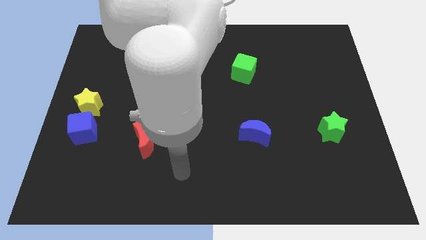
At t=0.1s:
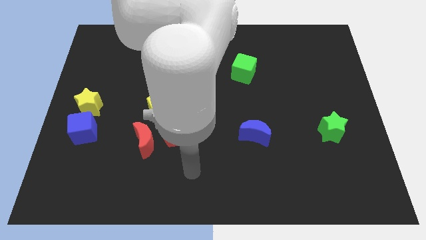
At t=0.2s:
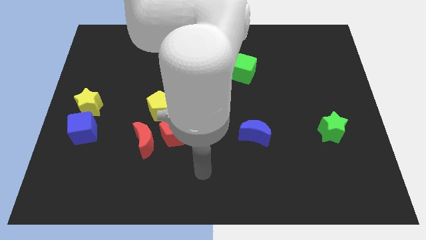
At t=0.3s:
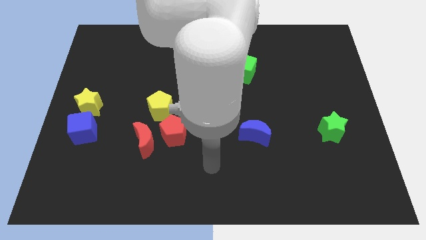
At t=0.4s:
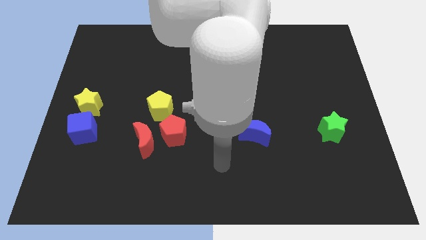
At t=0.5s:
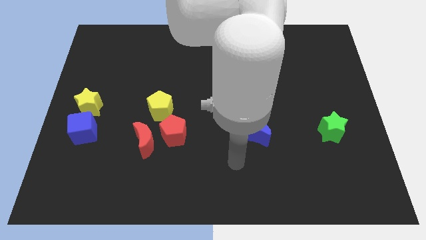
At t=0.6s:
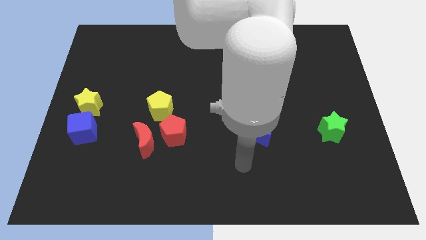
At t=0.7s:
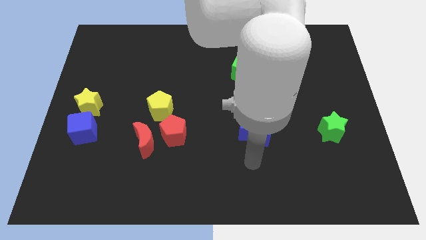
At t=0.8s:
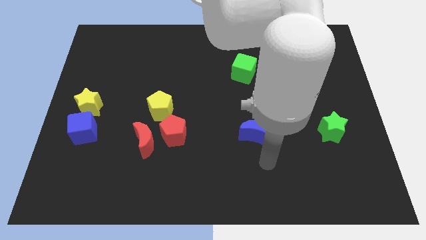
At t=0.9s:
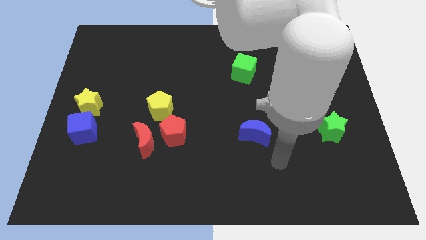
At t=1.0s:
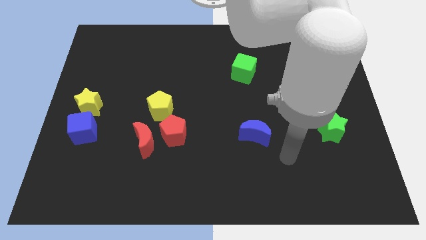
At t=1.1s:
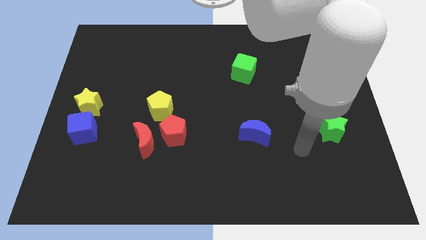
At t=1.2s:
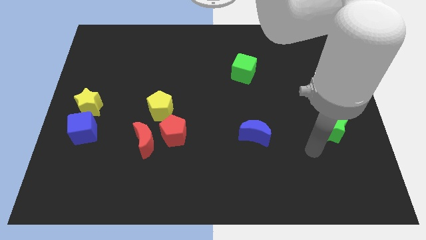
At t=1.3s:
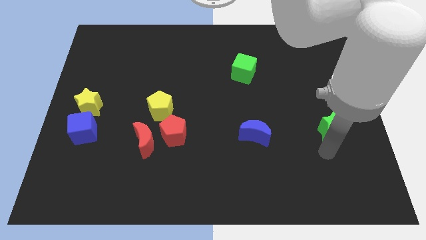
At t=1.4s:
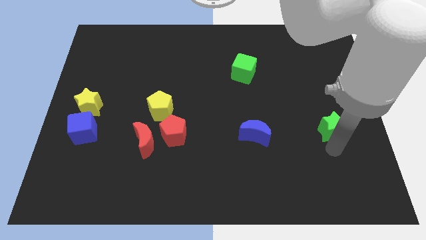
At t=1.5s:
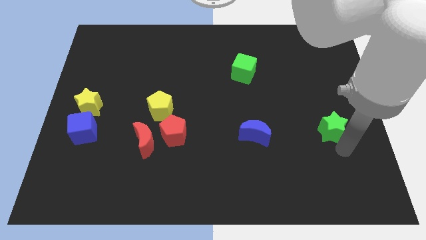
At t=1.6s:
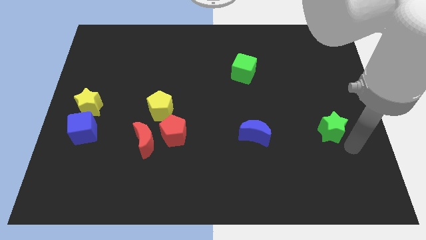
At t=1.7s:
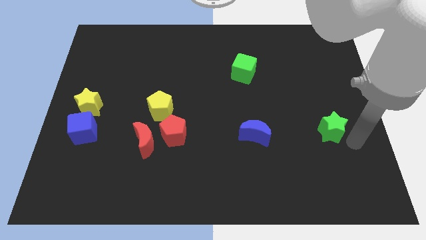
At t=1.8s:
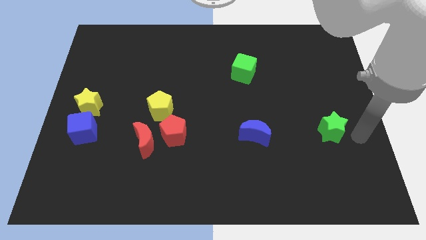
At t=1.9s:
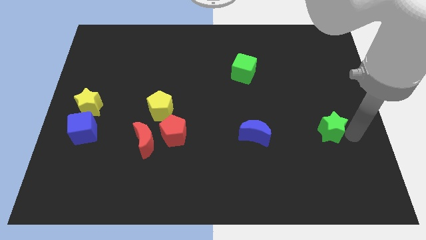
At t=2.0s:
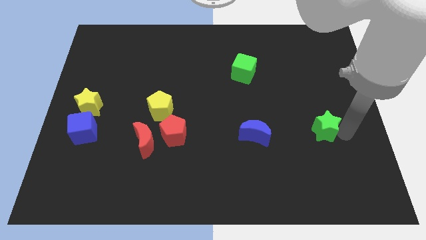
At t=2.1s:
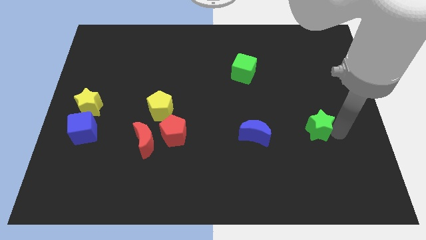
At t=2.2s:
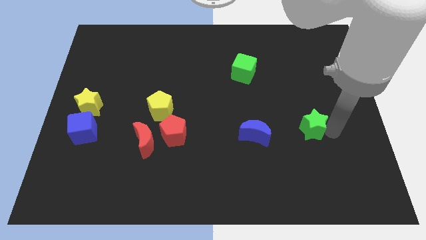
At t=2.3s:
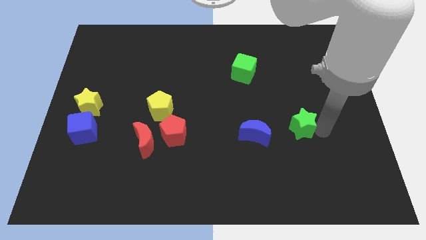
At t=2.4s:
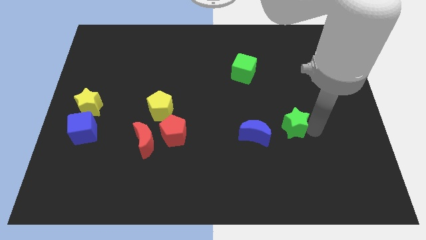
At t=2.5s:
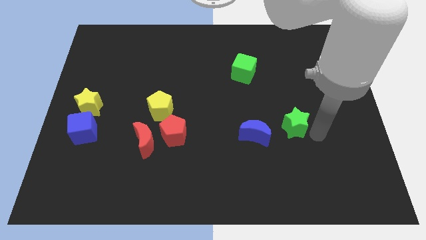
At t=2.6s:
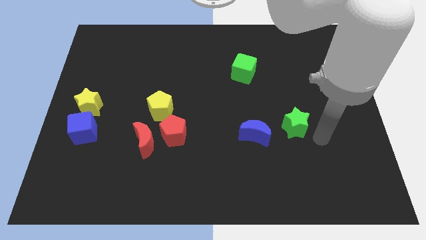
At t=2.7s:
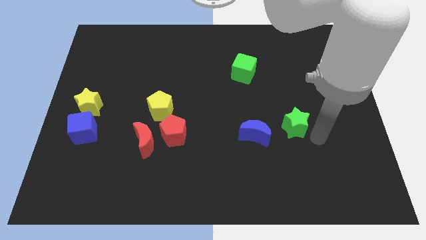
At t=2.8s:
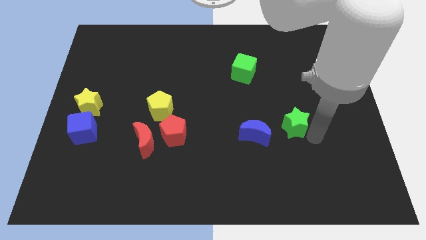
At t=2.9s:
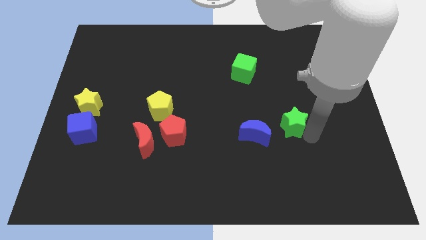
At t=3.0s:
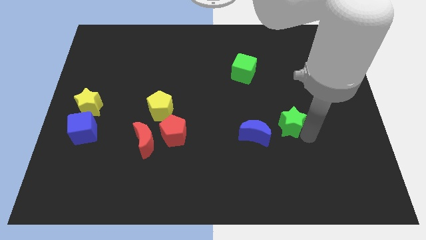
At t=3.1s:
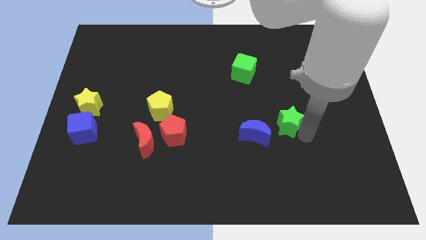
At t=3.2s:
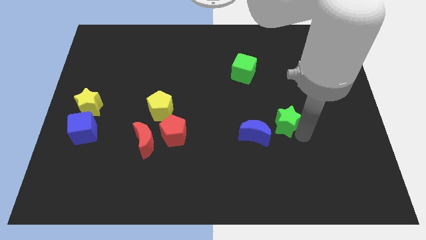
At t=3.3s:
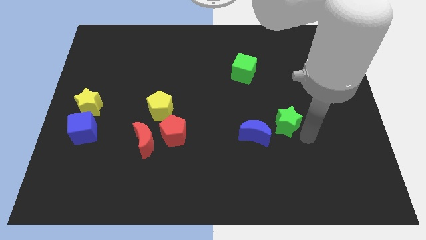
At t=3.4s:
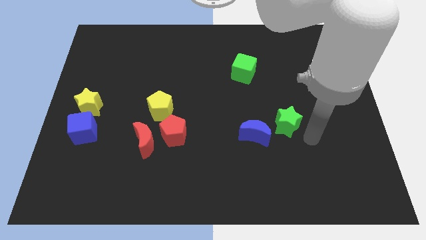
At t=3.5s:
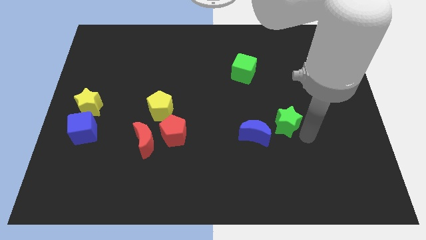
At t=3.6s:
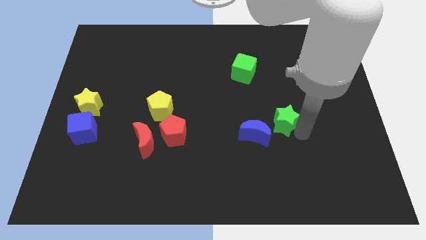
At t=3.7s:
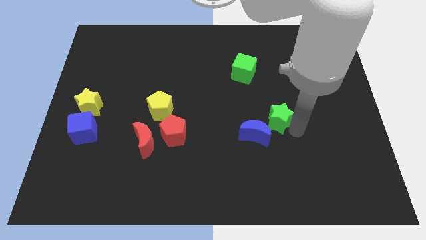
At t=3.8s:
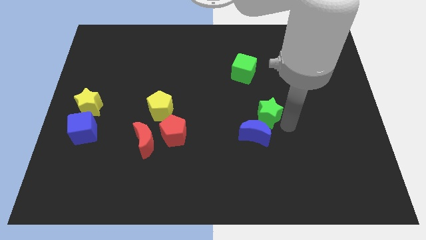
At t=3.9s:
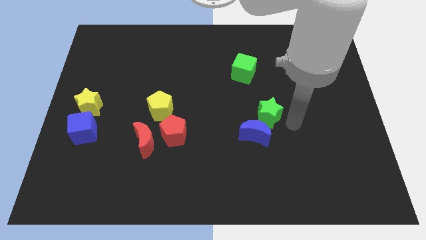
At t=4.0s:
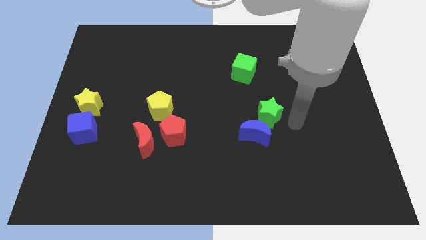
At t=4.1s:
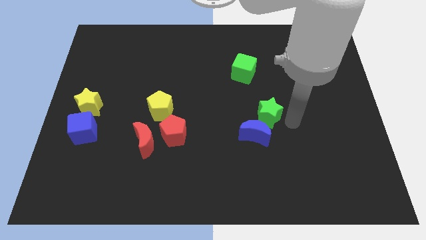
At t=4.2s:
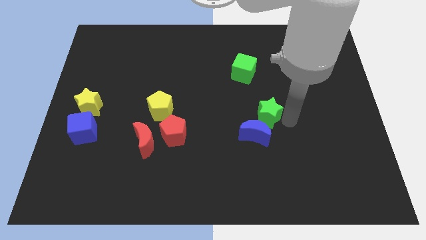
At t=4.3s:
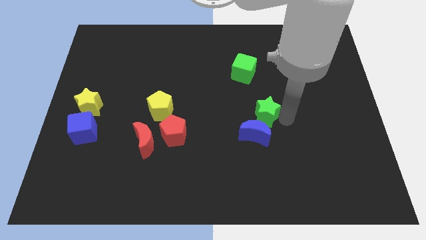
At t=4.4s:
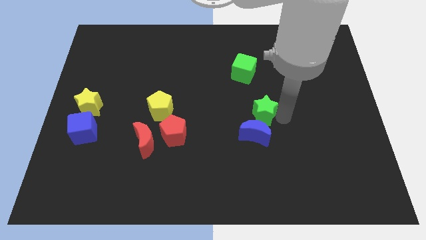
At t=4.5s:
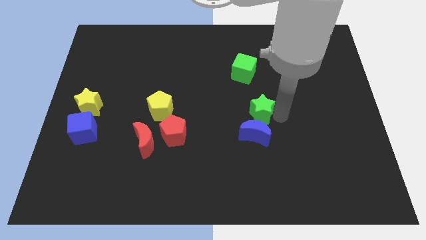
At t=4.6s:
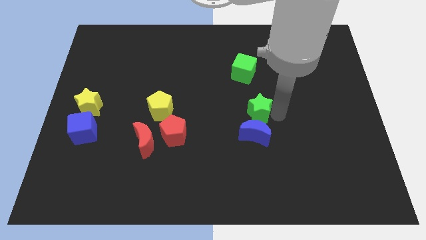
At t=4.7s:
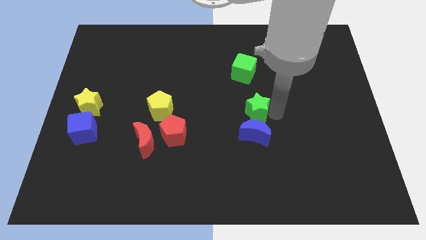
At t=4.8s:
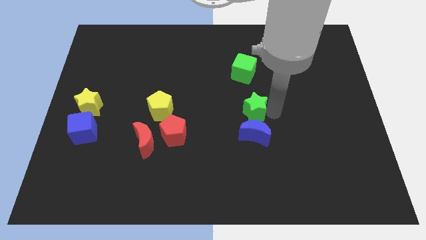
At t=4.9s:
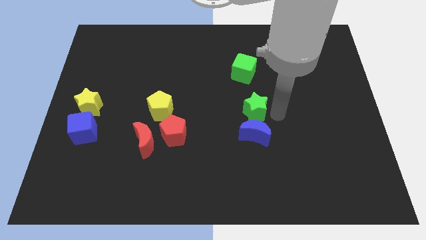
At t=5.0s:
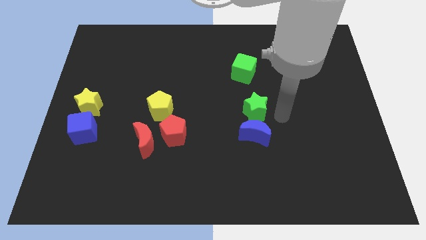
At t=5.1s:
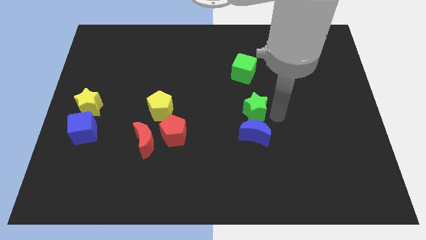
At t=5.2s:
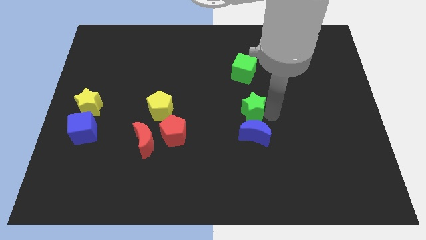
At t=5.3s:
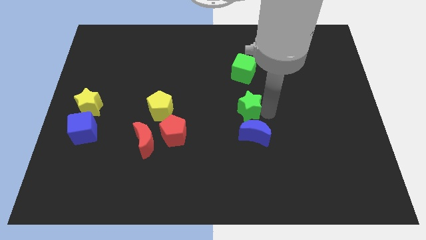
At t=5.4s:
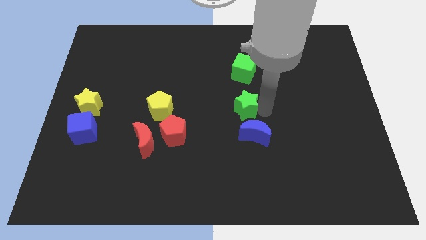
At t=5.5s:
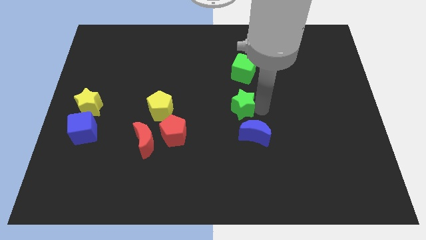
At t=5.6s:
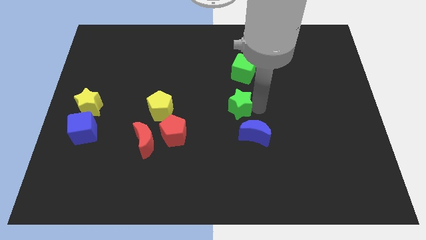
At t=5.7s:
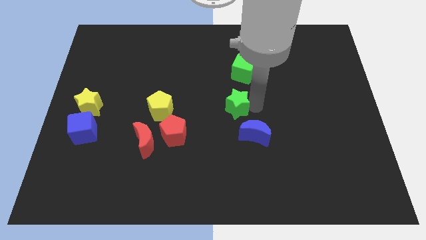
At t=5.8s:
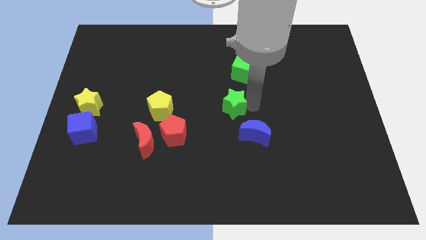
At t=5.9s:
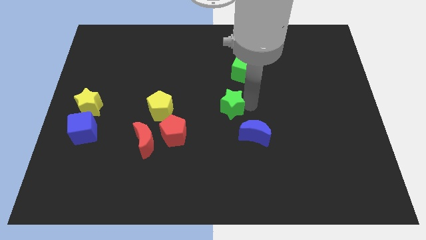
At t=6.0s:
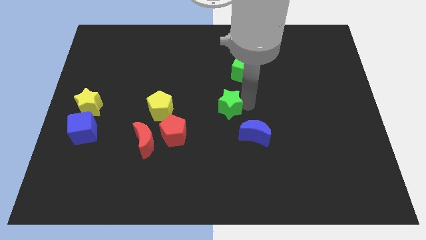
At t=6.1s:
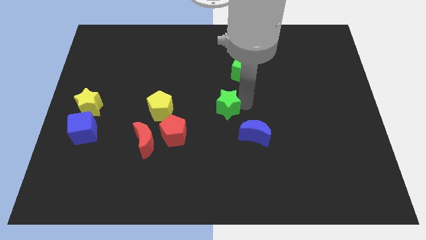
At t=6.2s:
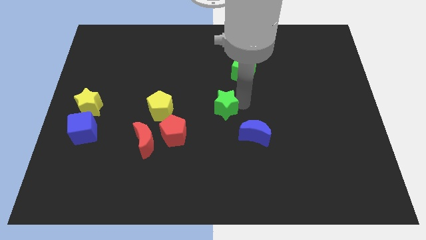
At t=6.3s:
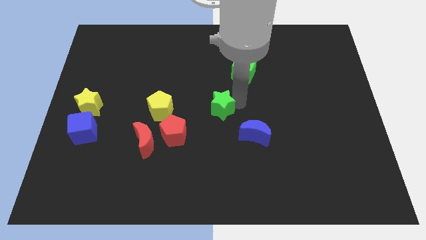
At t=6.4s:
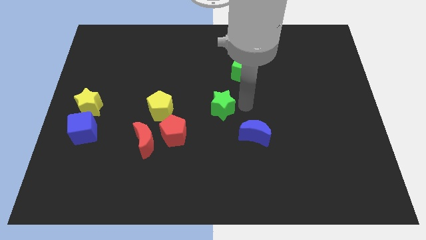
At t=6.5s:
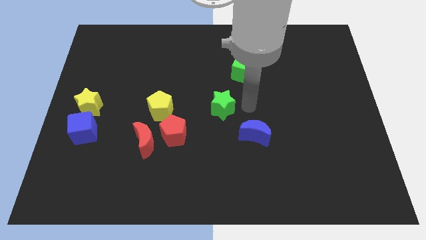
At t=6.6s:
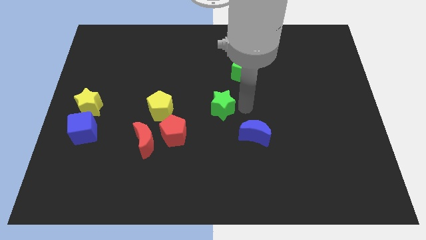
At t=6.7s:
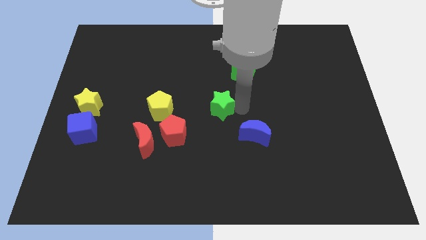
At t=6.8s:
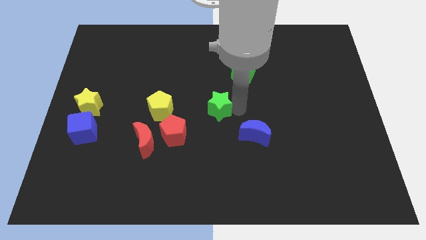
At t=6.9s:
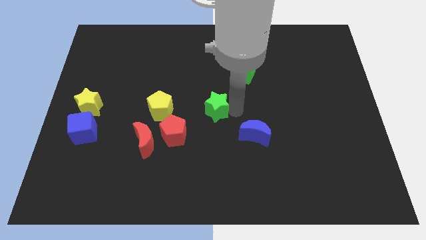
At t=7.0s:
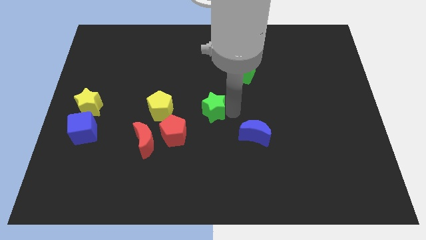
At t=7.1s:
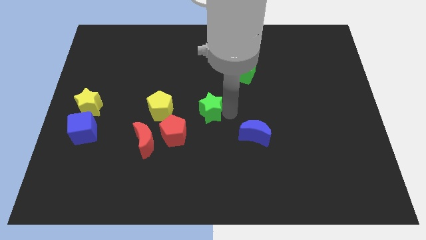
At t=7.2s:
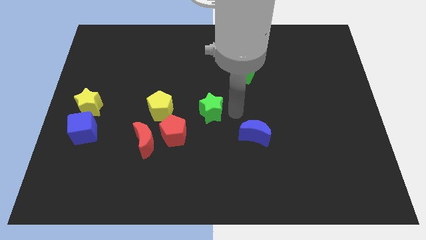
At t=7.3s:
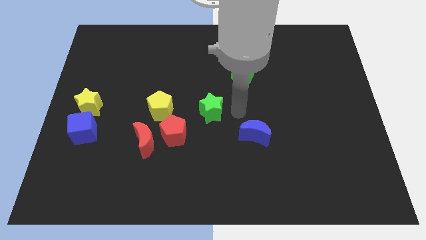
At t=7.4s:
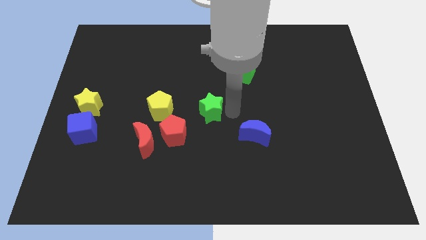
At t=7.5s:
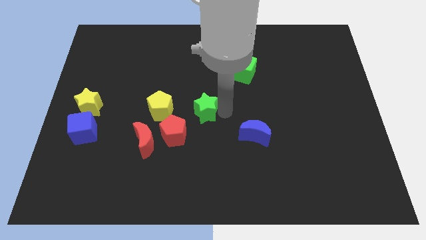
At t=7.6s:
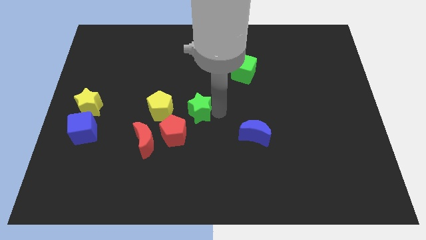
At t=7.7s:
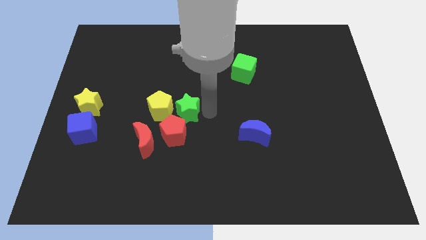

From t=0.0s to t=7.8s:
put the green star close to the yellow pentagon
